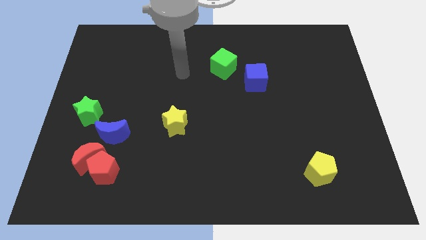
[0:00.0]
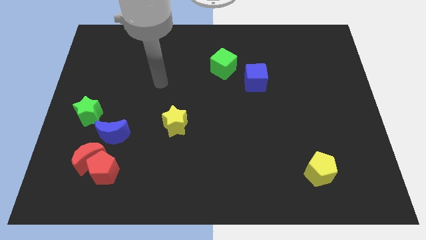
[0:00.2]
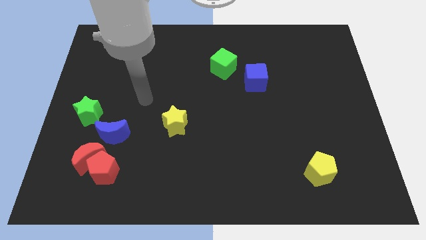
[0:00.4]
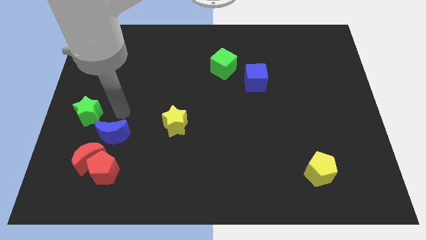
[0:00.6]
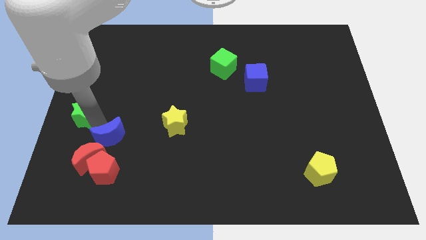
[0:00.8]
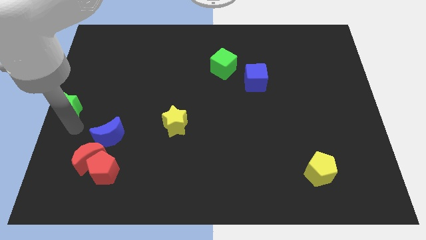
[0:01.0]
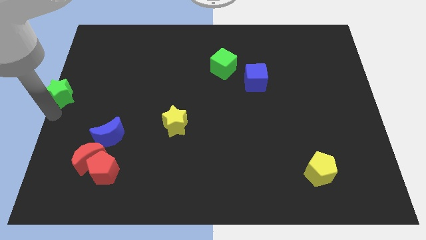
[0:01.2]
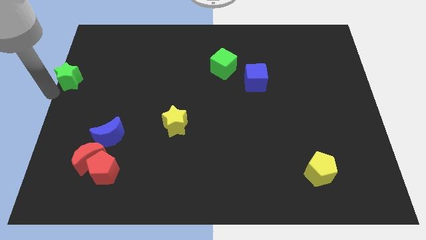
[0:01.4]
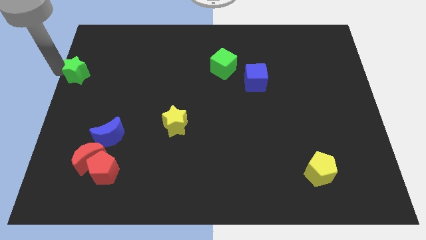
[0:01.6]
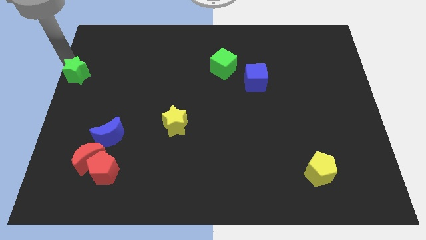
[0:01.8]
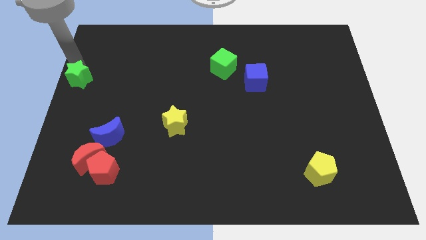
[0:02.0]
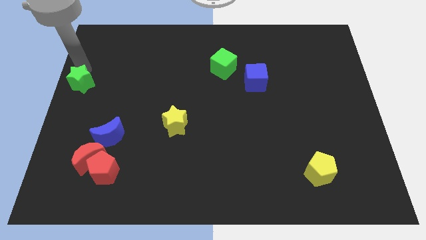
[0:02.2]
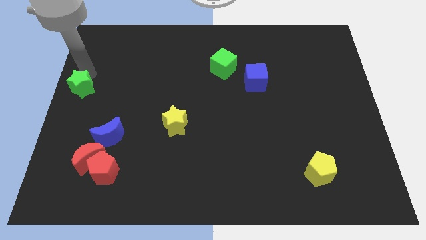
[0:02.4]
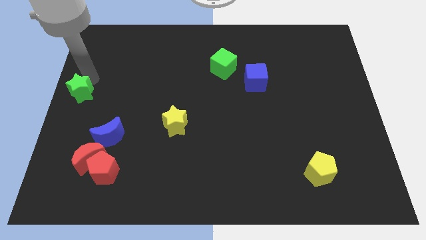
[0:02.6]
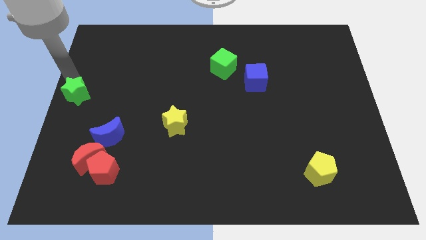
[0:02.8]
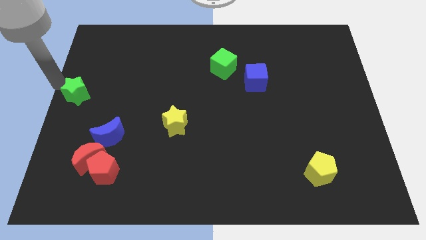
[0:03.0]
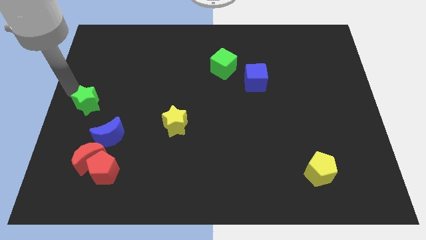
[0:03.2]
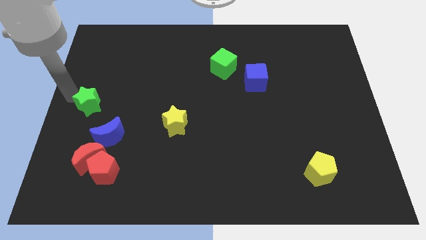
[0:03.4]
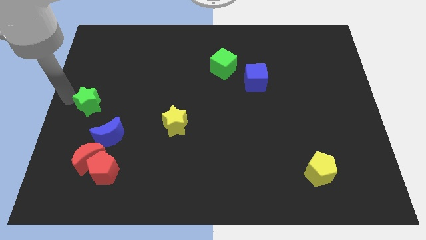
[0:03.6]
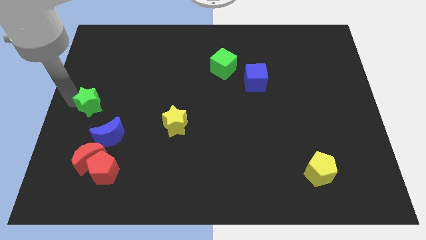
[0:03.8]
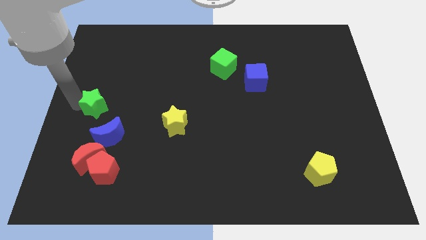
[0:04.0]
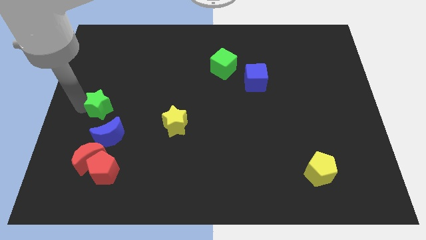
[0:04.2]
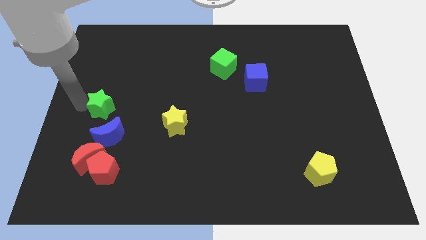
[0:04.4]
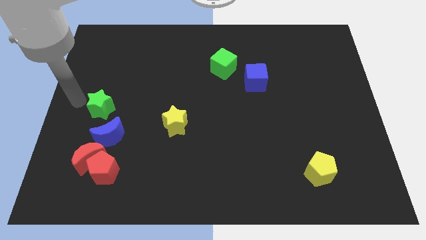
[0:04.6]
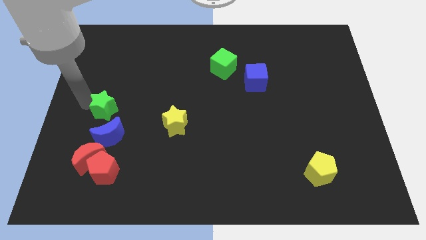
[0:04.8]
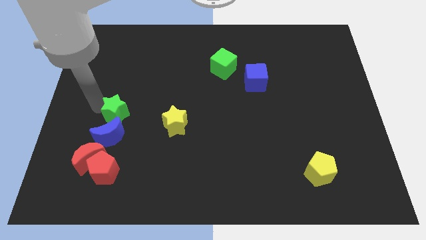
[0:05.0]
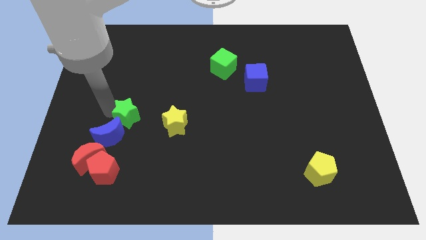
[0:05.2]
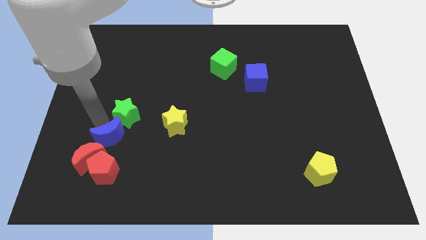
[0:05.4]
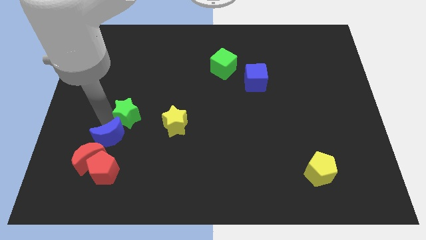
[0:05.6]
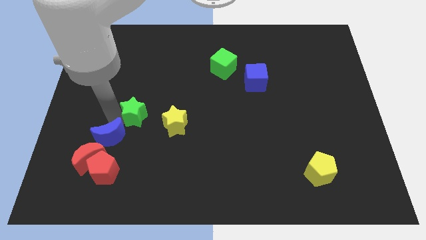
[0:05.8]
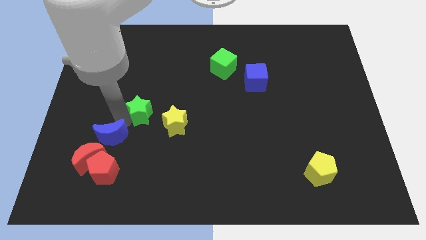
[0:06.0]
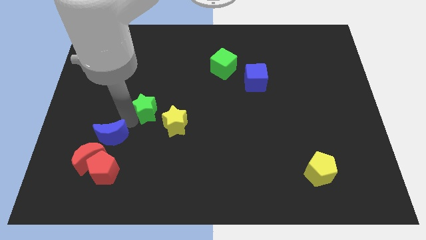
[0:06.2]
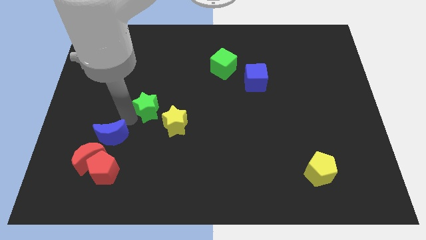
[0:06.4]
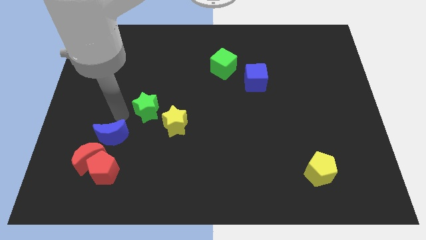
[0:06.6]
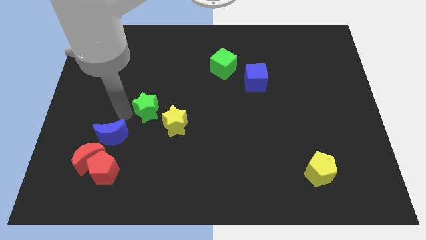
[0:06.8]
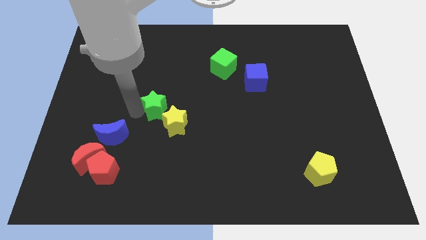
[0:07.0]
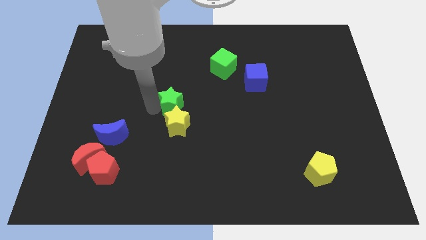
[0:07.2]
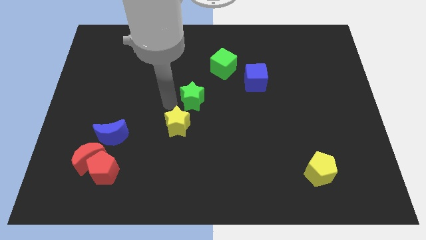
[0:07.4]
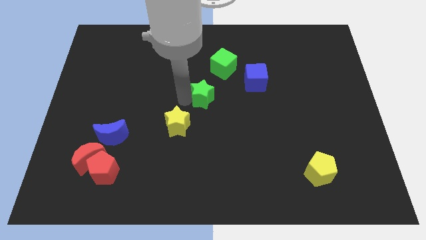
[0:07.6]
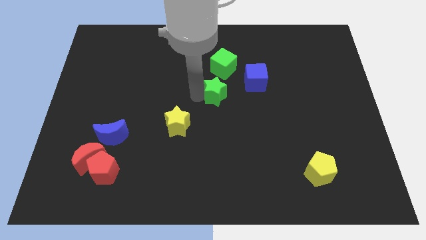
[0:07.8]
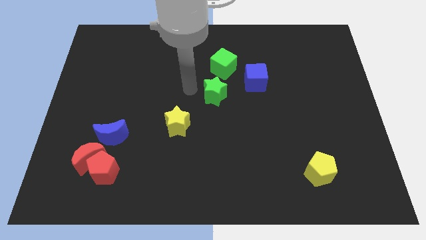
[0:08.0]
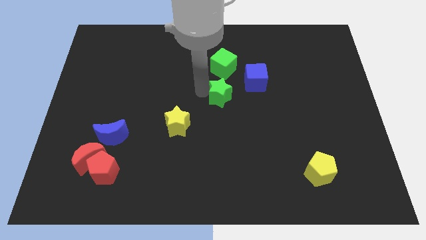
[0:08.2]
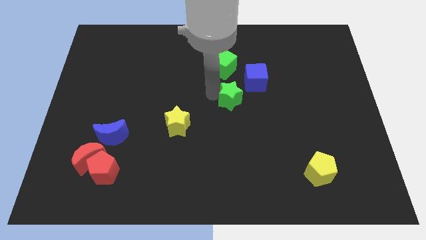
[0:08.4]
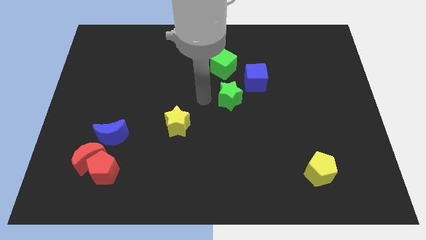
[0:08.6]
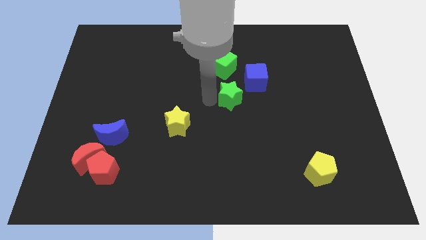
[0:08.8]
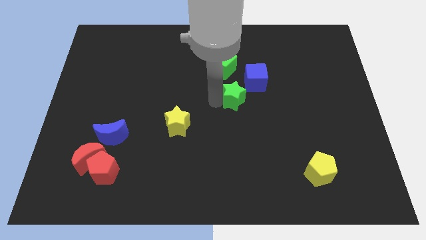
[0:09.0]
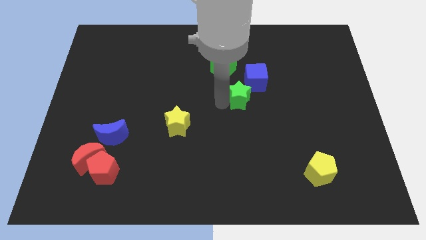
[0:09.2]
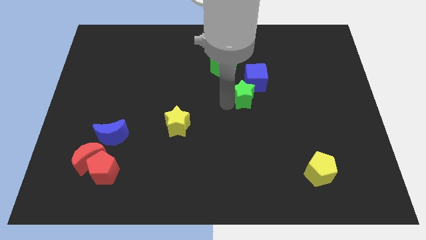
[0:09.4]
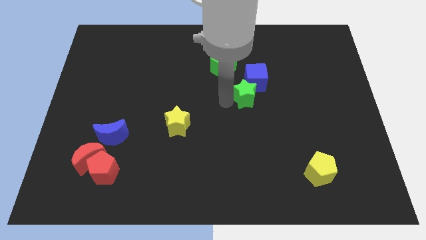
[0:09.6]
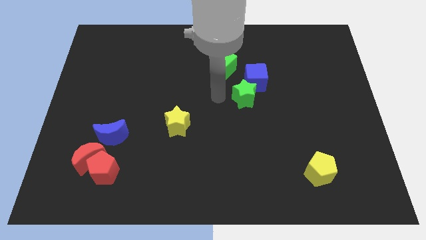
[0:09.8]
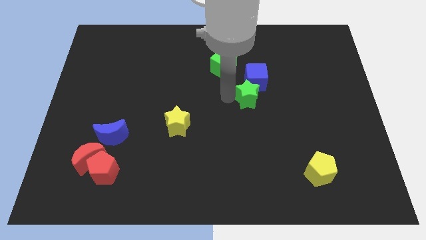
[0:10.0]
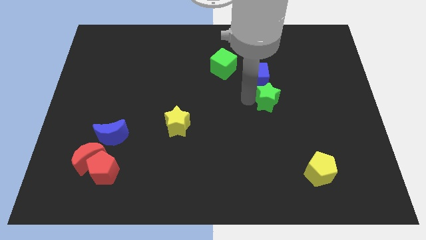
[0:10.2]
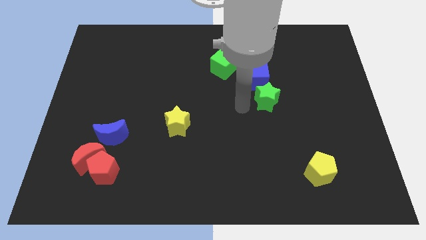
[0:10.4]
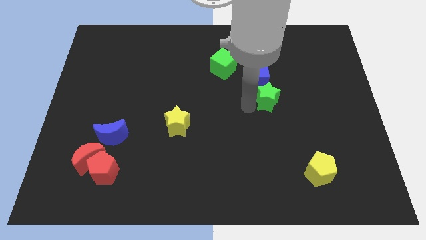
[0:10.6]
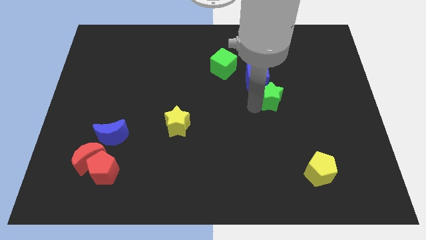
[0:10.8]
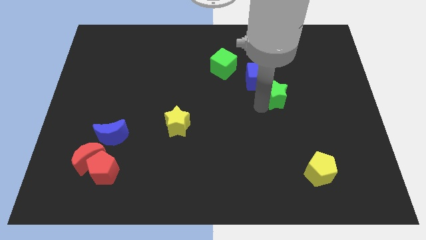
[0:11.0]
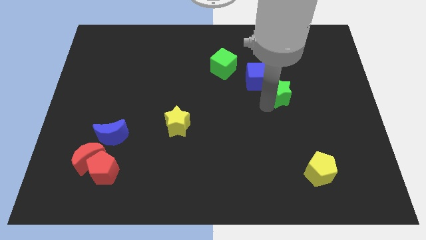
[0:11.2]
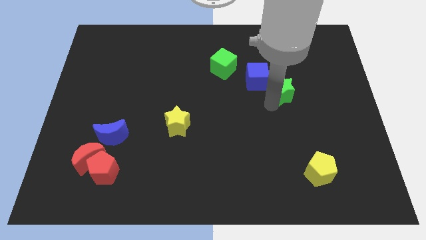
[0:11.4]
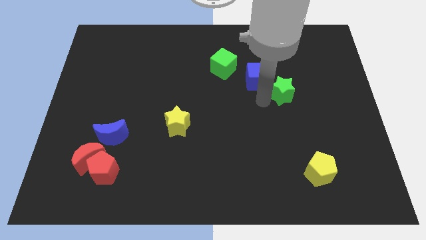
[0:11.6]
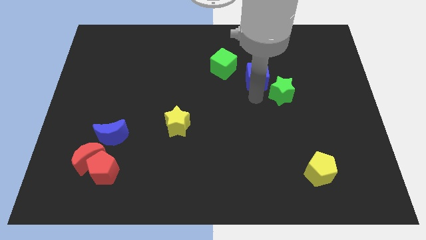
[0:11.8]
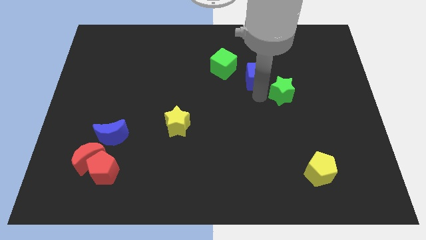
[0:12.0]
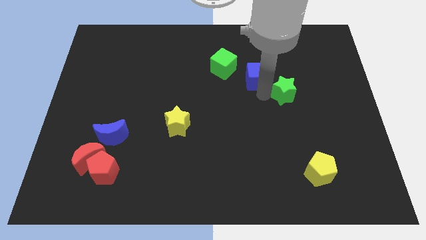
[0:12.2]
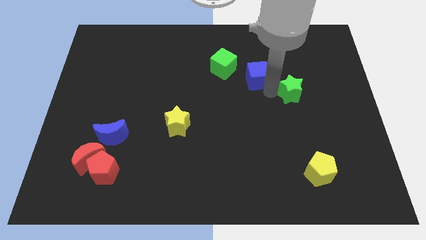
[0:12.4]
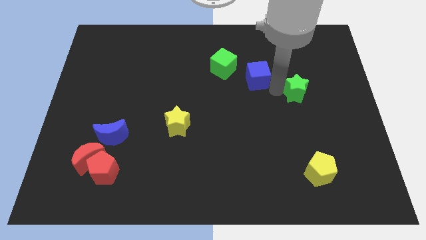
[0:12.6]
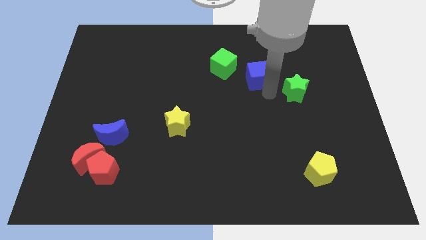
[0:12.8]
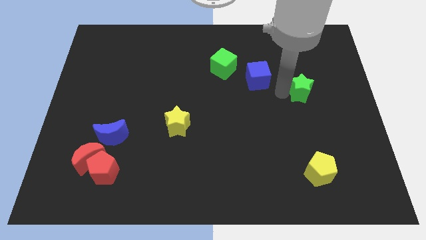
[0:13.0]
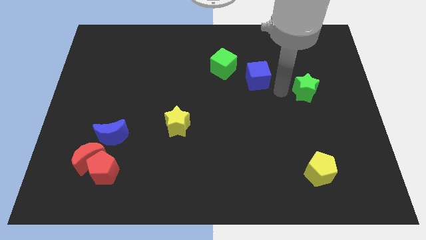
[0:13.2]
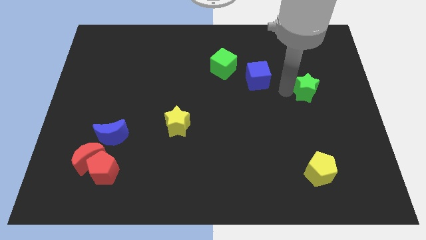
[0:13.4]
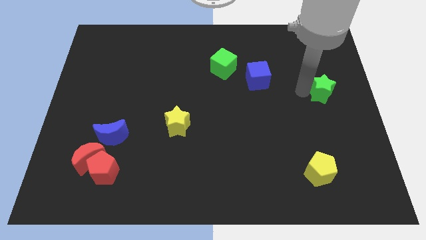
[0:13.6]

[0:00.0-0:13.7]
slide the green star to the center right
